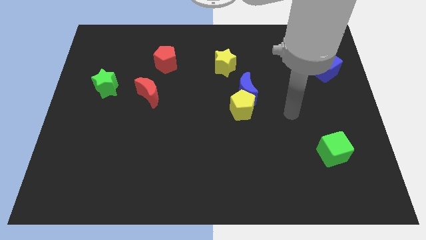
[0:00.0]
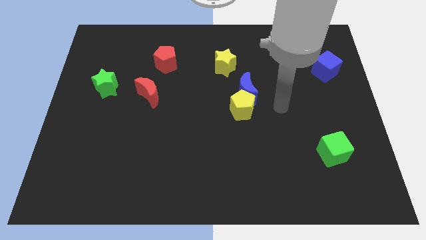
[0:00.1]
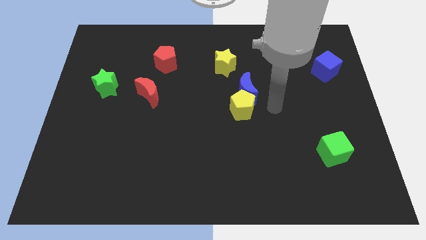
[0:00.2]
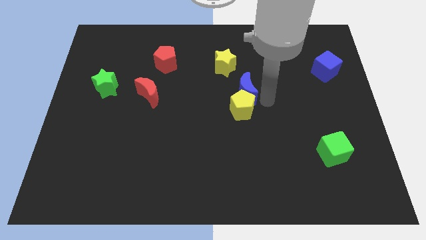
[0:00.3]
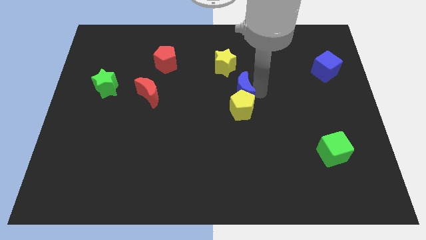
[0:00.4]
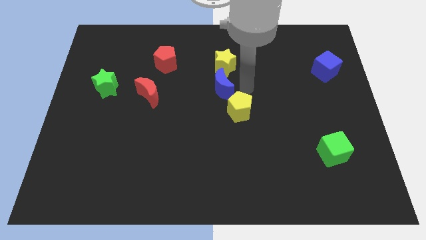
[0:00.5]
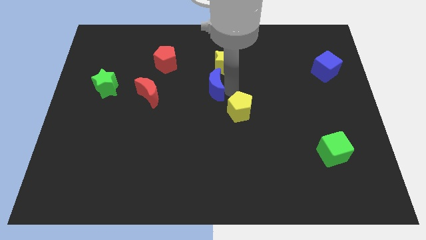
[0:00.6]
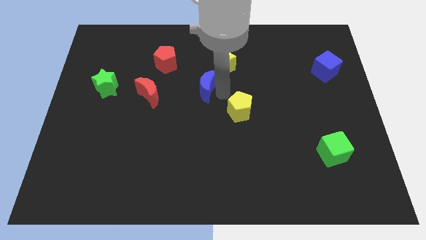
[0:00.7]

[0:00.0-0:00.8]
pull the yellow pentagon apart from the blue moon

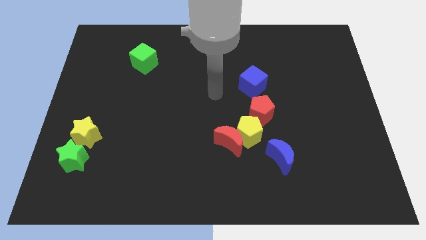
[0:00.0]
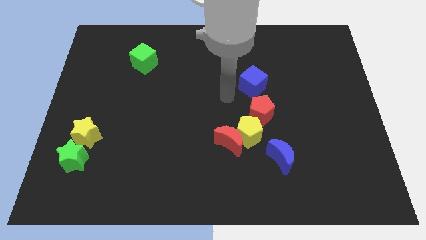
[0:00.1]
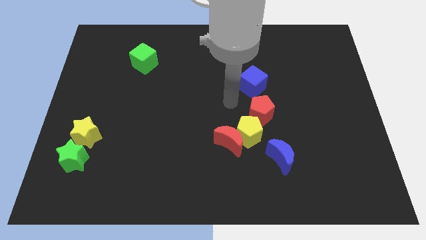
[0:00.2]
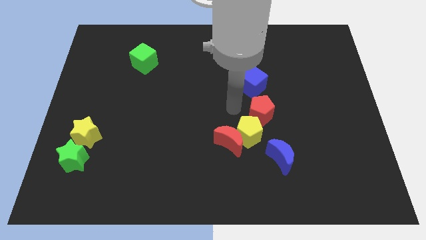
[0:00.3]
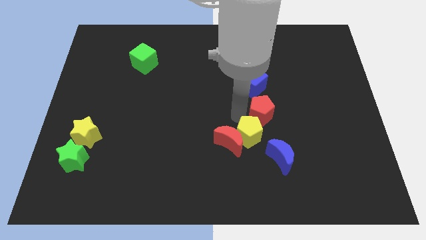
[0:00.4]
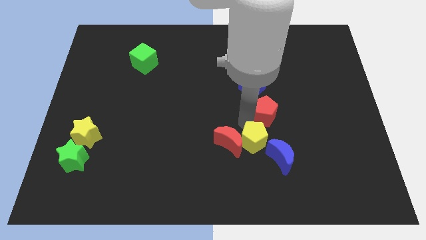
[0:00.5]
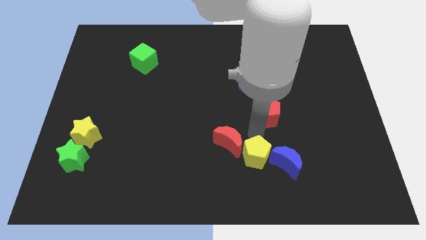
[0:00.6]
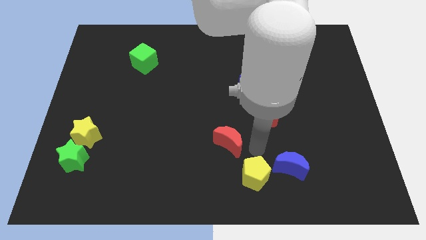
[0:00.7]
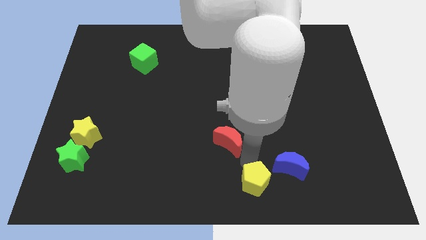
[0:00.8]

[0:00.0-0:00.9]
move the red moon away from the yellow pentagon

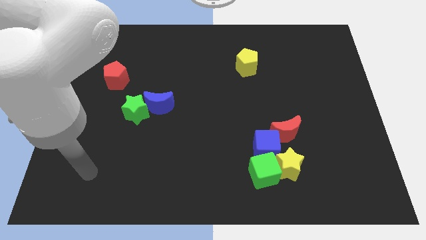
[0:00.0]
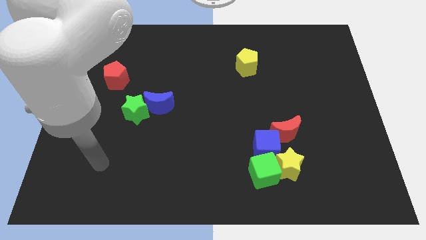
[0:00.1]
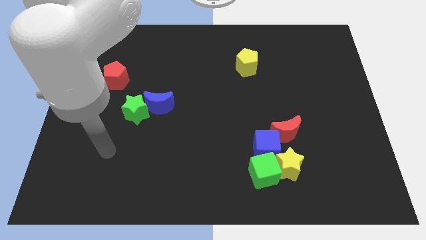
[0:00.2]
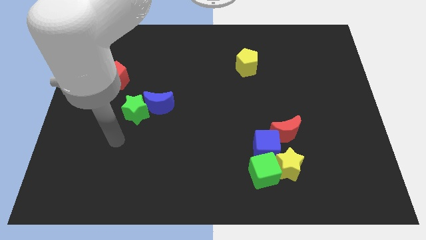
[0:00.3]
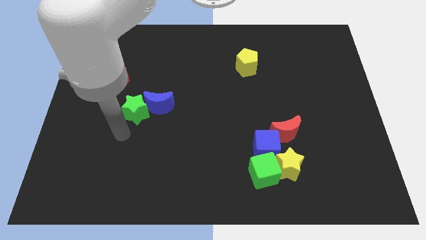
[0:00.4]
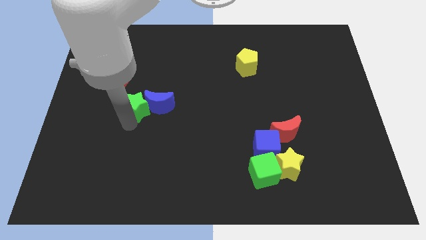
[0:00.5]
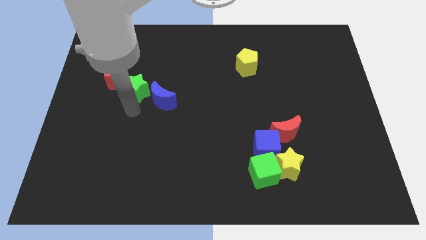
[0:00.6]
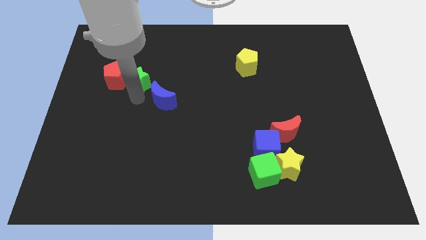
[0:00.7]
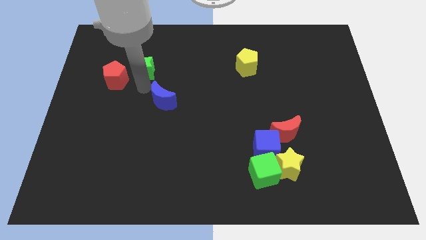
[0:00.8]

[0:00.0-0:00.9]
pull the blue moon apart from the green star

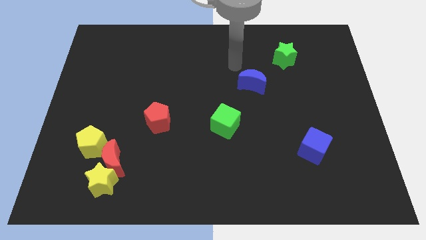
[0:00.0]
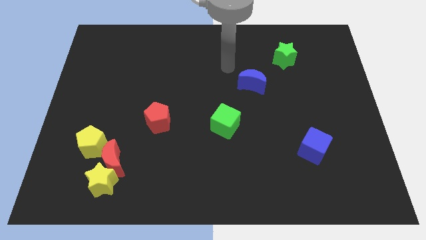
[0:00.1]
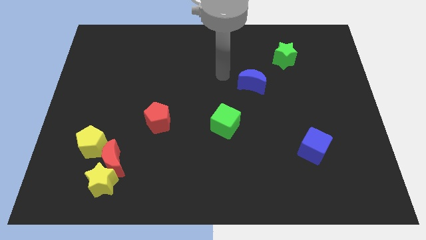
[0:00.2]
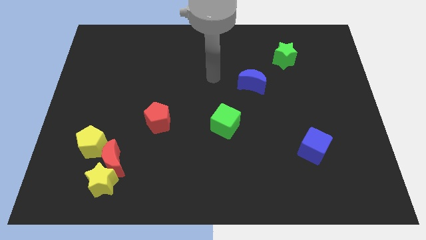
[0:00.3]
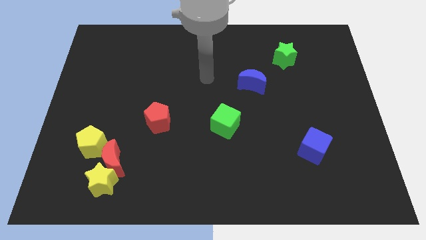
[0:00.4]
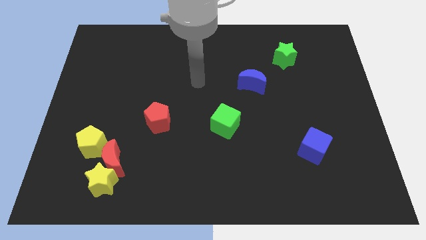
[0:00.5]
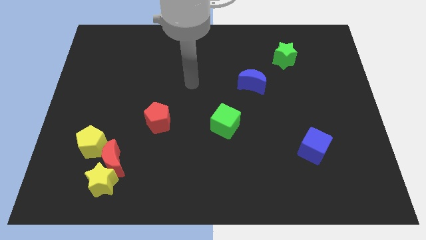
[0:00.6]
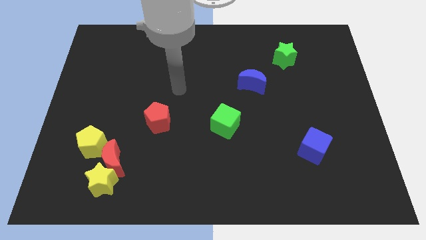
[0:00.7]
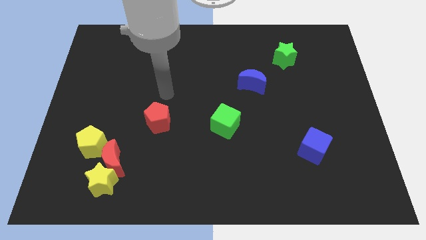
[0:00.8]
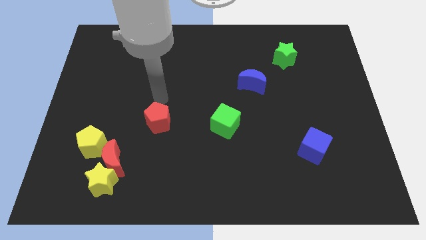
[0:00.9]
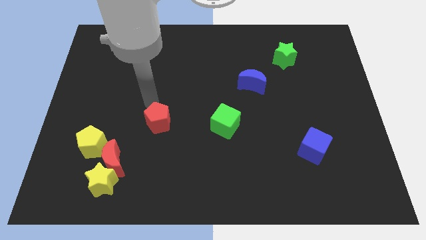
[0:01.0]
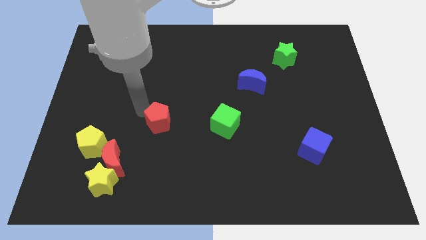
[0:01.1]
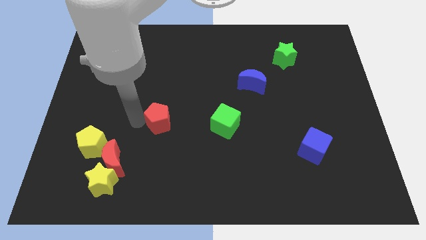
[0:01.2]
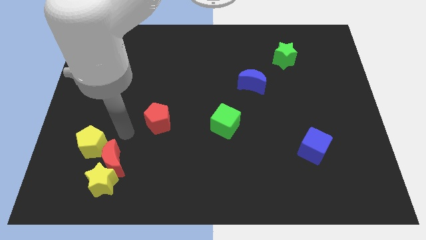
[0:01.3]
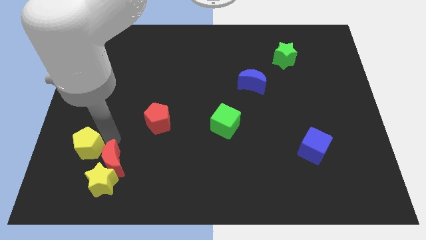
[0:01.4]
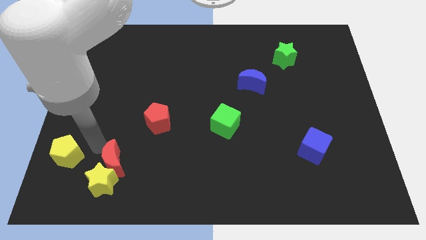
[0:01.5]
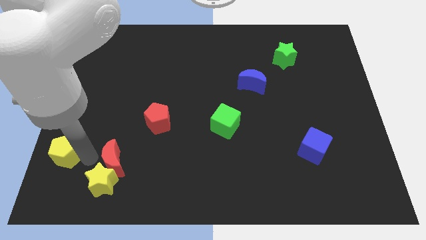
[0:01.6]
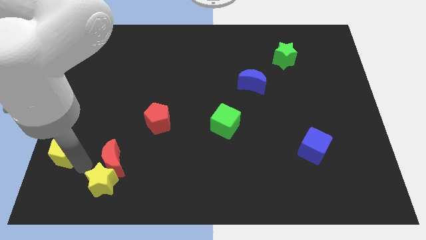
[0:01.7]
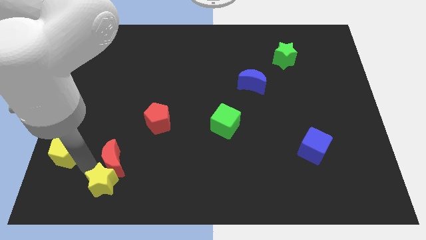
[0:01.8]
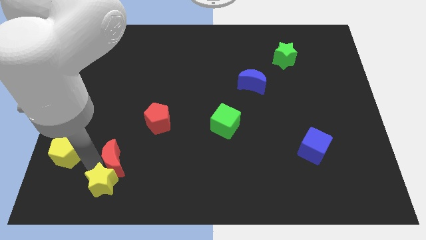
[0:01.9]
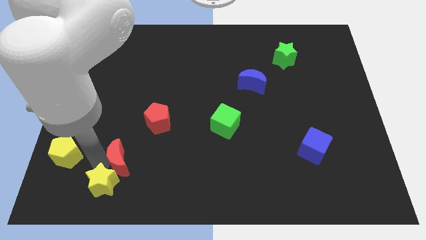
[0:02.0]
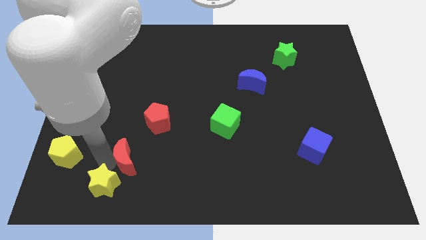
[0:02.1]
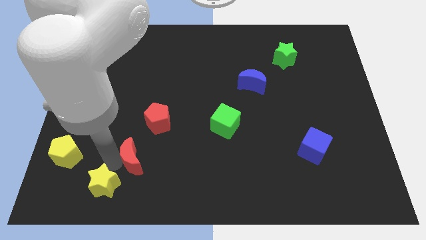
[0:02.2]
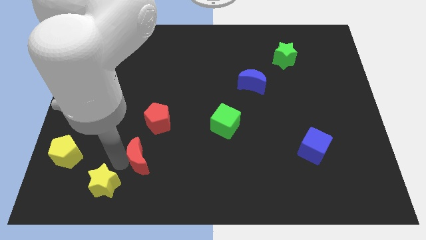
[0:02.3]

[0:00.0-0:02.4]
separate the red moon from the yellow star and yellow pentagon

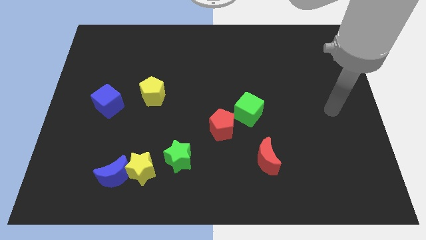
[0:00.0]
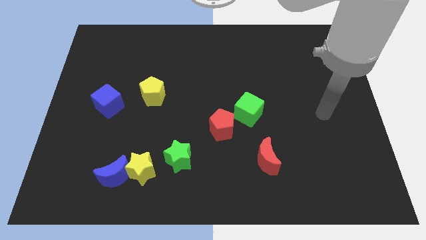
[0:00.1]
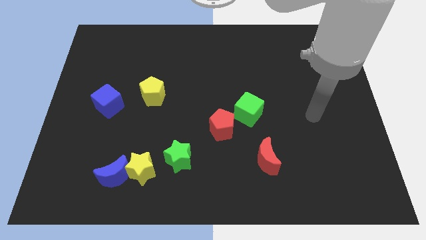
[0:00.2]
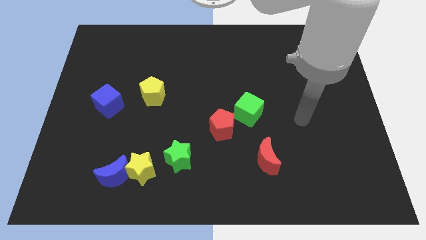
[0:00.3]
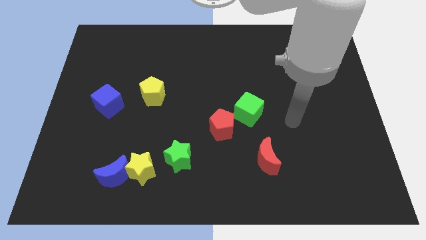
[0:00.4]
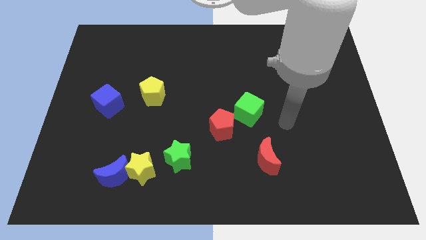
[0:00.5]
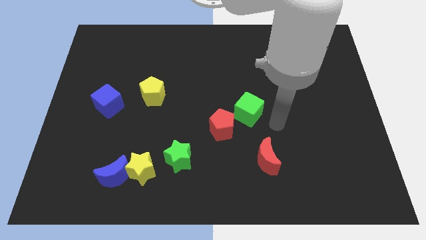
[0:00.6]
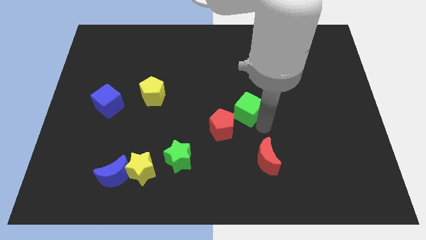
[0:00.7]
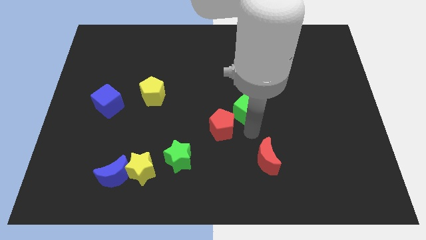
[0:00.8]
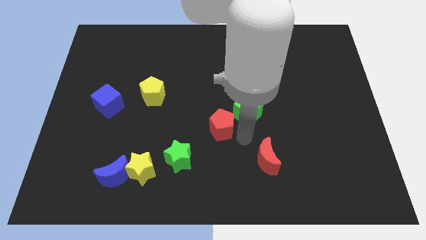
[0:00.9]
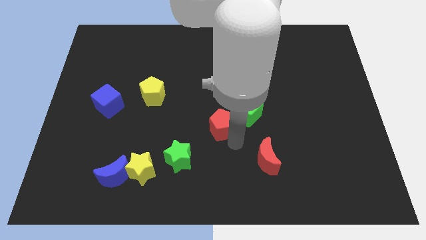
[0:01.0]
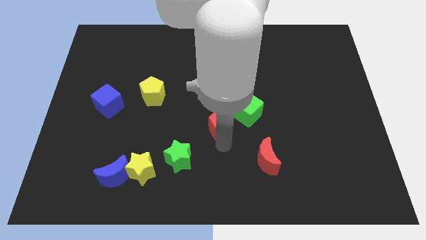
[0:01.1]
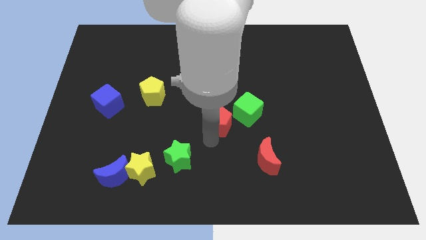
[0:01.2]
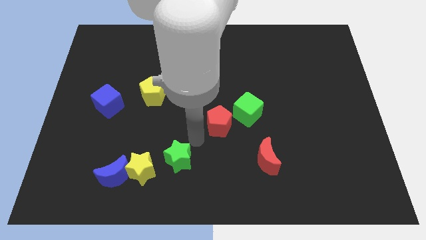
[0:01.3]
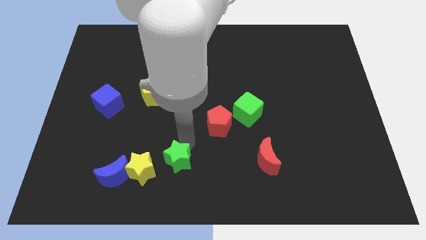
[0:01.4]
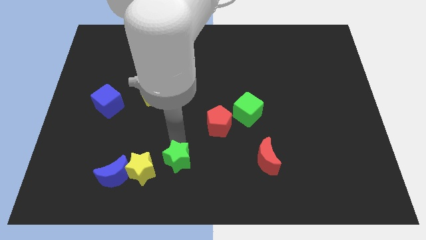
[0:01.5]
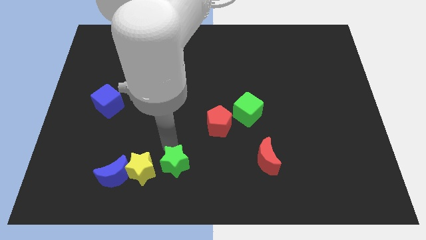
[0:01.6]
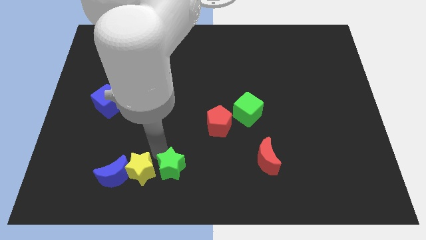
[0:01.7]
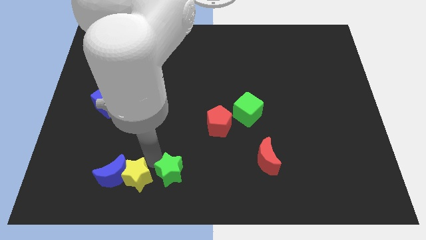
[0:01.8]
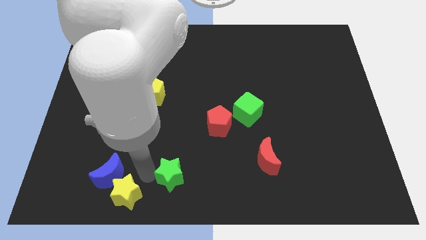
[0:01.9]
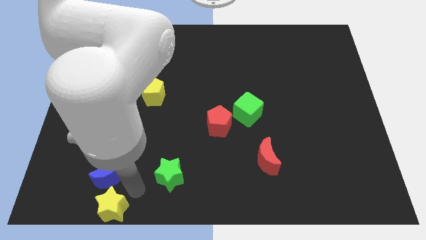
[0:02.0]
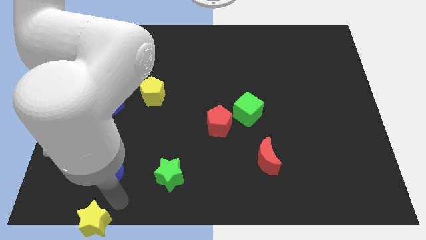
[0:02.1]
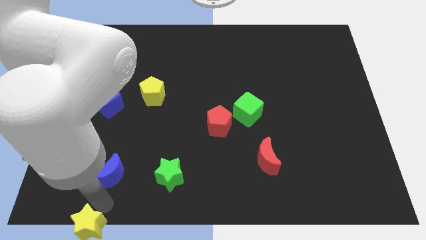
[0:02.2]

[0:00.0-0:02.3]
pull the blue moon apart from the yellow star

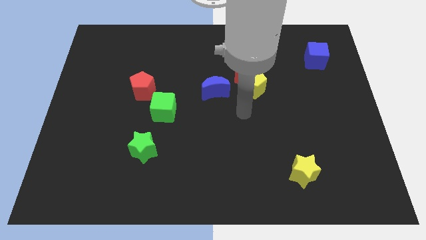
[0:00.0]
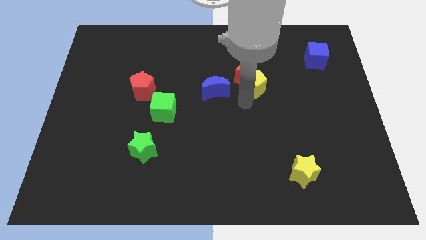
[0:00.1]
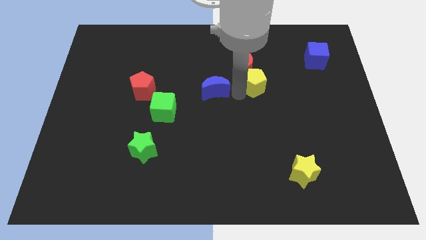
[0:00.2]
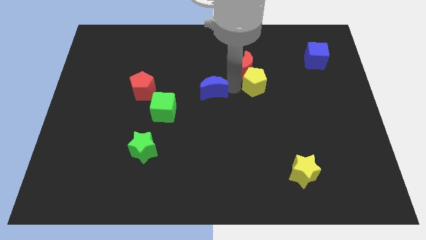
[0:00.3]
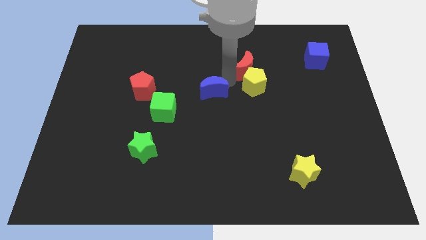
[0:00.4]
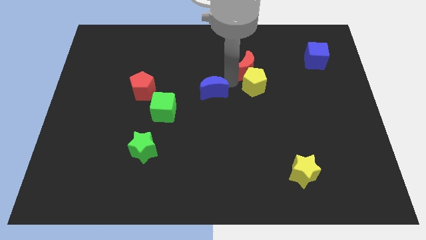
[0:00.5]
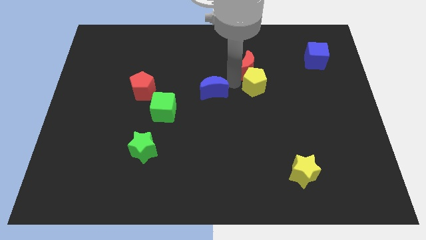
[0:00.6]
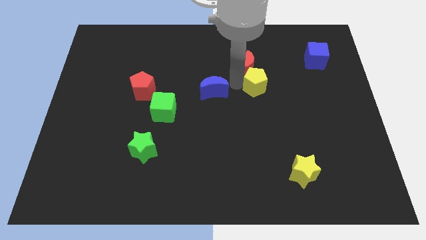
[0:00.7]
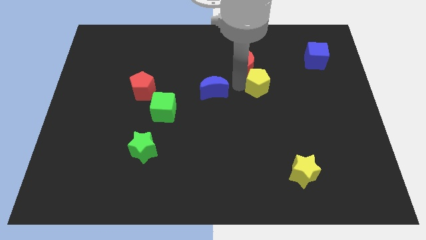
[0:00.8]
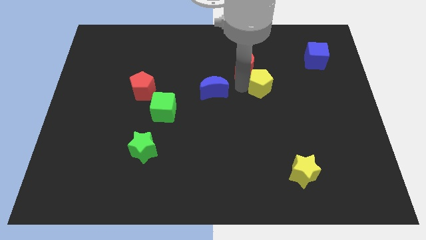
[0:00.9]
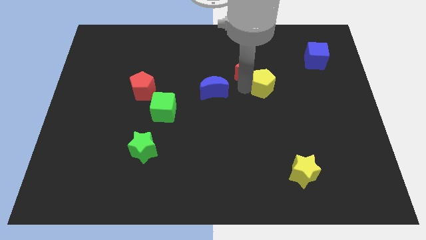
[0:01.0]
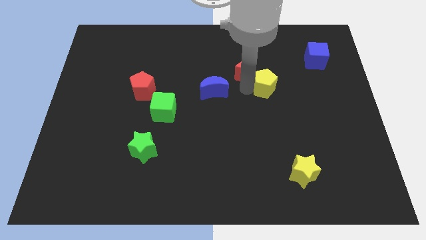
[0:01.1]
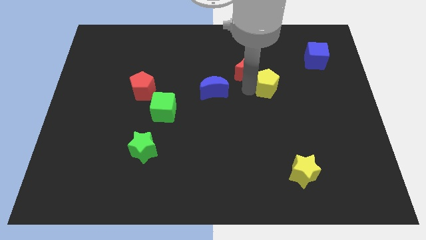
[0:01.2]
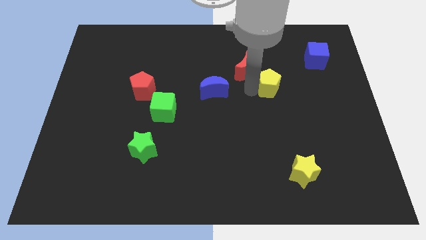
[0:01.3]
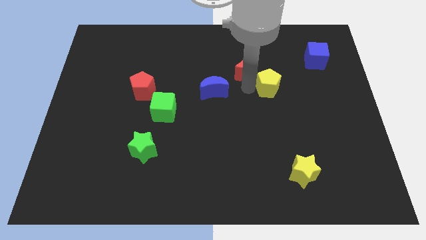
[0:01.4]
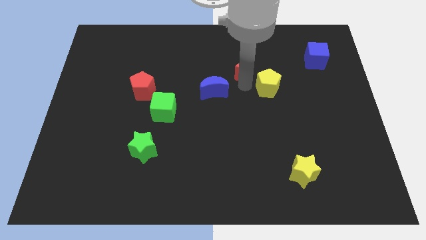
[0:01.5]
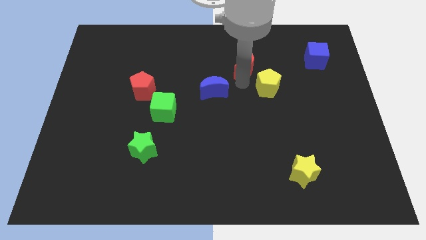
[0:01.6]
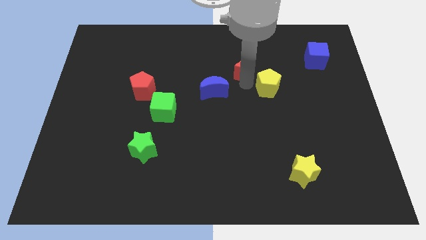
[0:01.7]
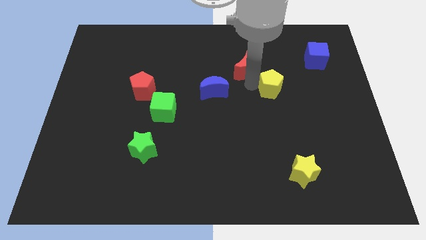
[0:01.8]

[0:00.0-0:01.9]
separate the yellow pentagon from the red moon and blue moon
